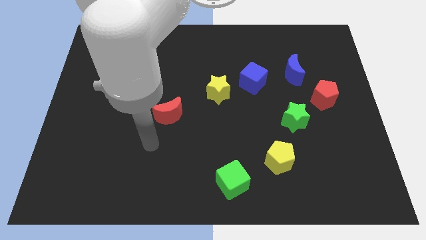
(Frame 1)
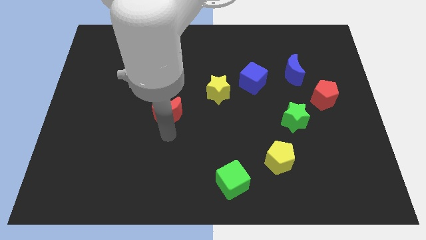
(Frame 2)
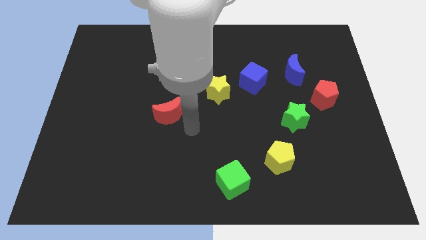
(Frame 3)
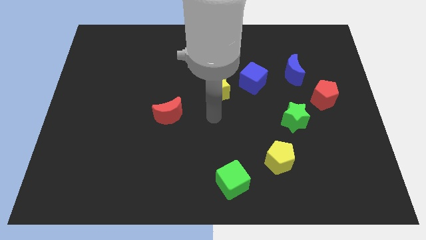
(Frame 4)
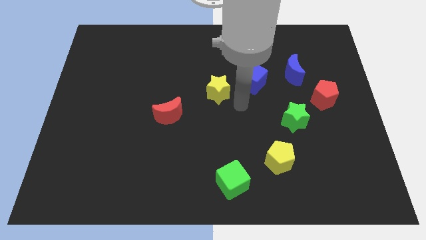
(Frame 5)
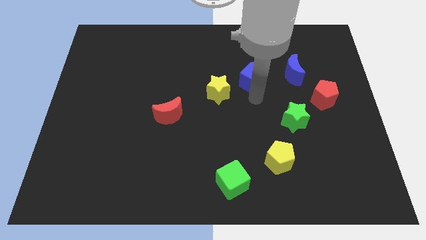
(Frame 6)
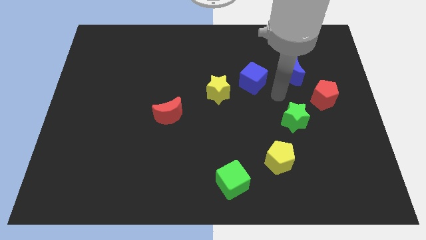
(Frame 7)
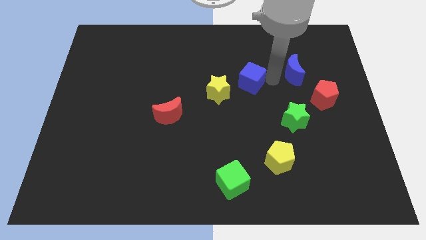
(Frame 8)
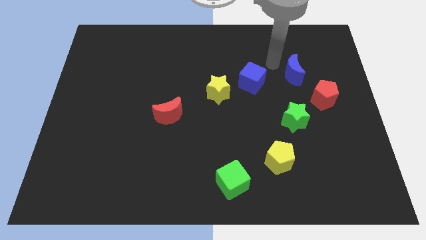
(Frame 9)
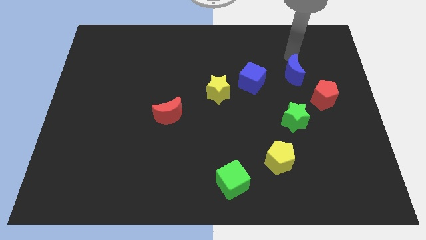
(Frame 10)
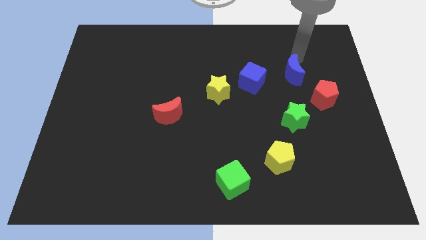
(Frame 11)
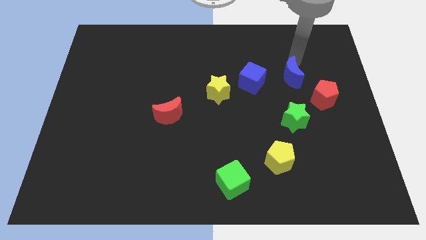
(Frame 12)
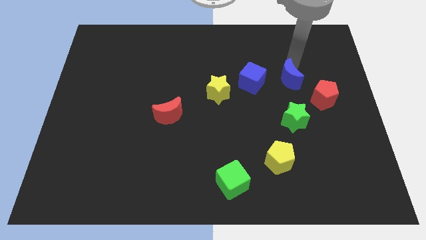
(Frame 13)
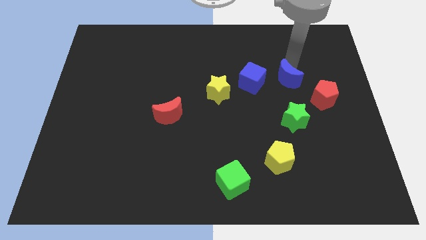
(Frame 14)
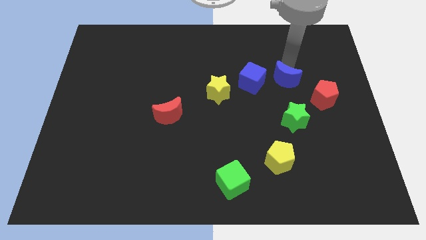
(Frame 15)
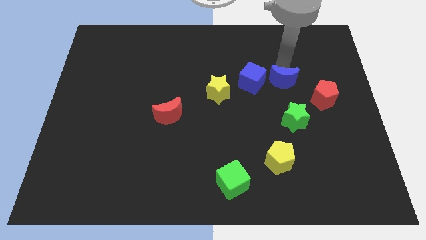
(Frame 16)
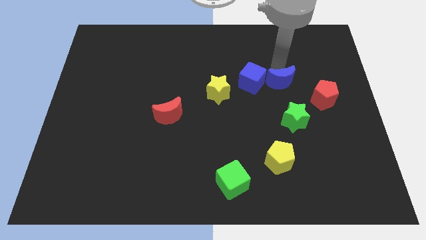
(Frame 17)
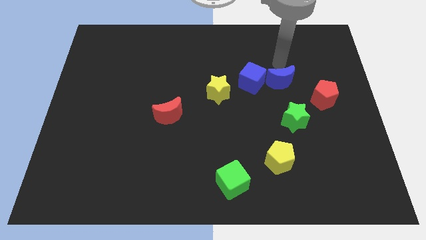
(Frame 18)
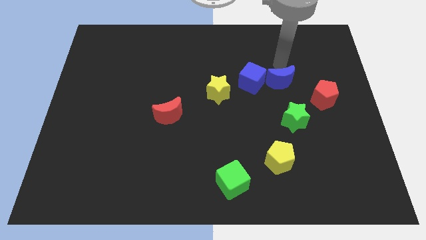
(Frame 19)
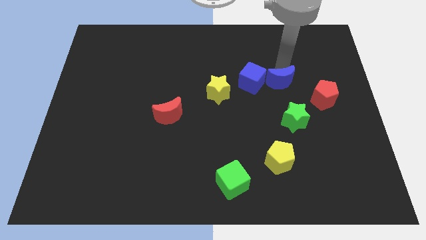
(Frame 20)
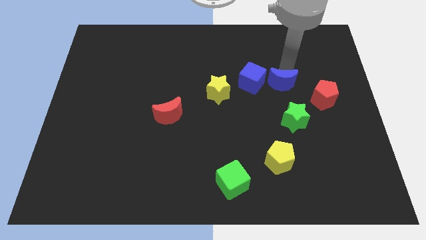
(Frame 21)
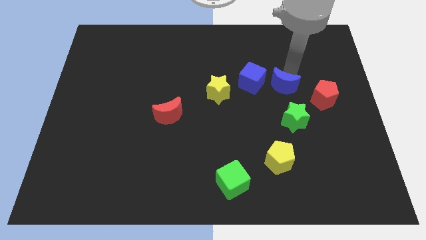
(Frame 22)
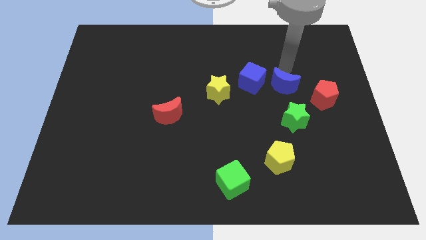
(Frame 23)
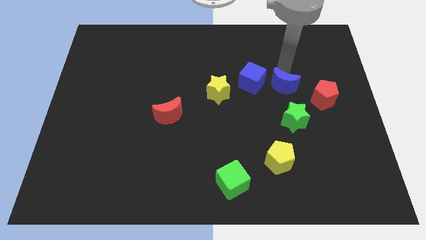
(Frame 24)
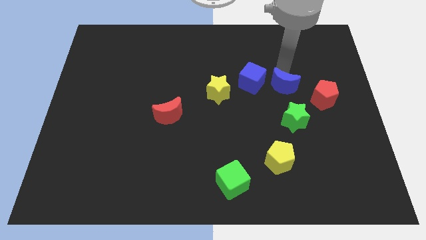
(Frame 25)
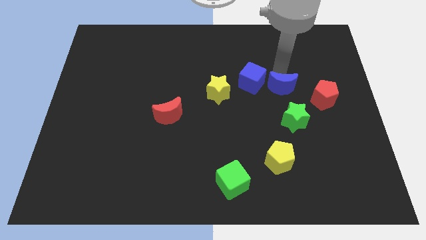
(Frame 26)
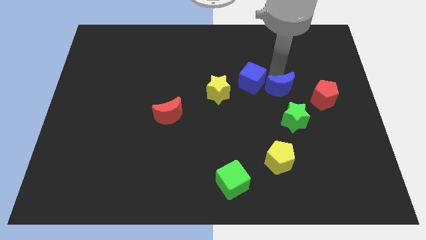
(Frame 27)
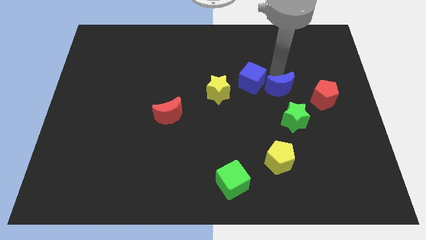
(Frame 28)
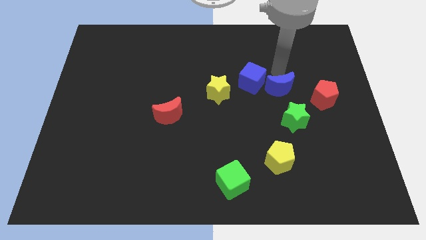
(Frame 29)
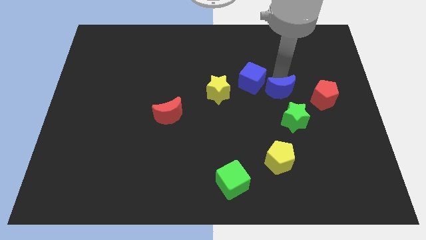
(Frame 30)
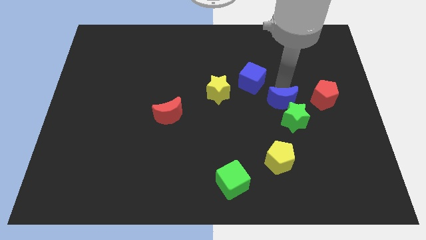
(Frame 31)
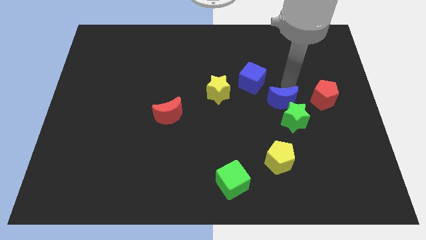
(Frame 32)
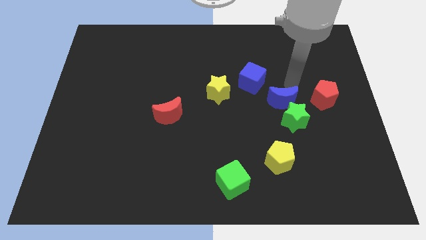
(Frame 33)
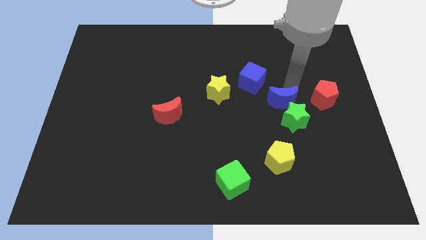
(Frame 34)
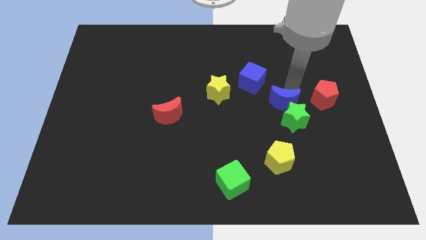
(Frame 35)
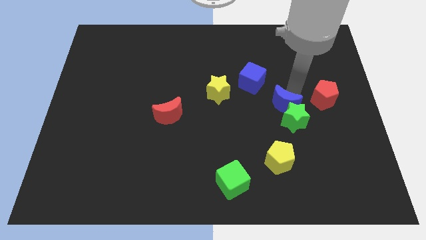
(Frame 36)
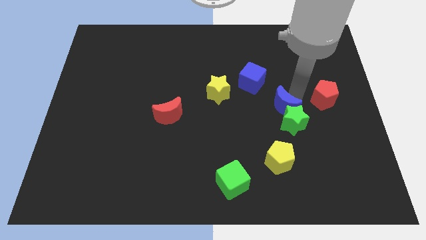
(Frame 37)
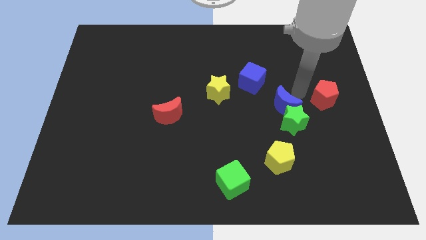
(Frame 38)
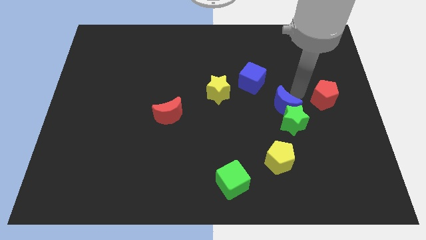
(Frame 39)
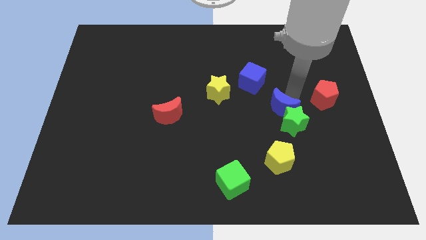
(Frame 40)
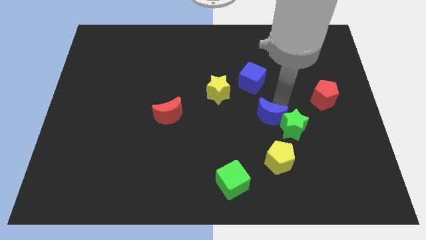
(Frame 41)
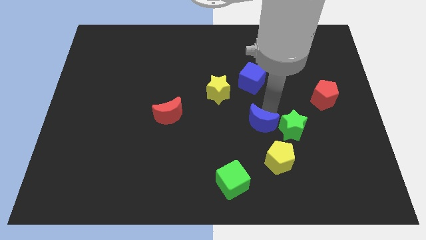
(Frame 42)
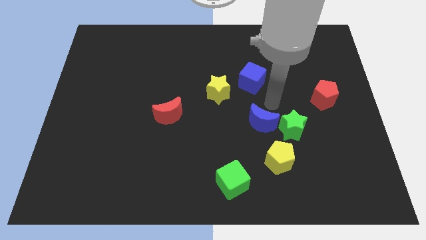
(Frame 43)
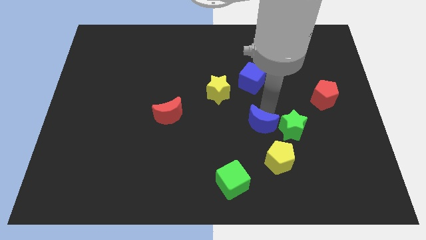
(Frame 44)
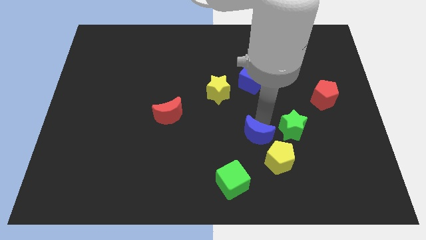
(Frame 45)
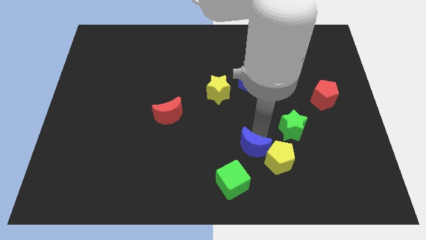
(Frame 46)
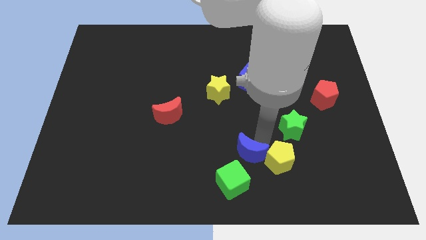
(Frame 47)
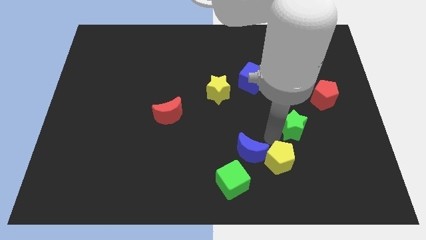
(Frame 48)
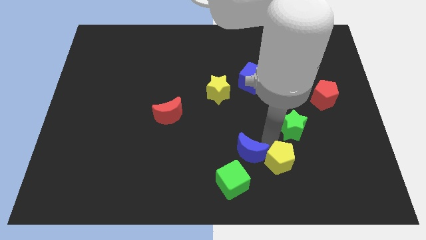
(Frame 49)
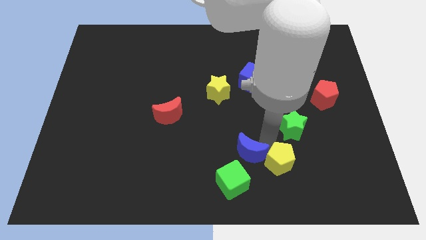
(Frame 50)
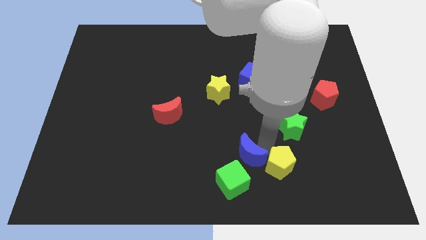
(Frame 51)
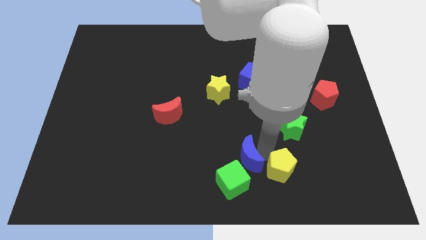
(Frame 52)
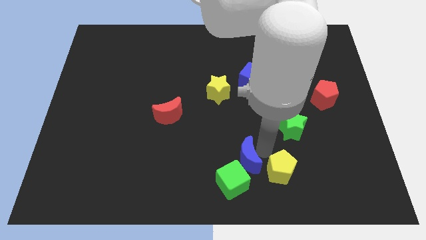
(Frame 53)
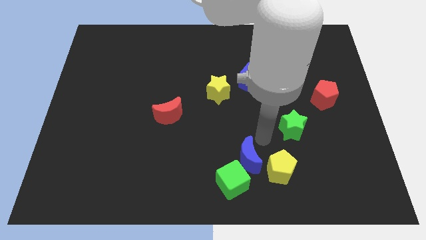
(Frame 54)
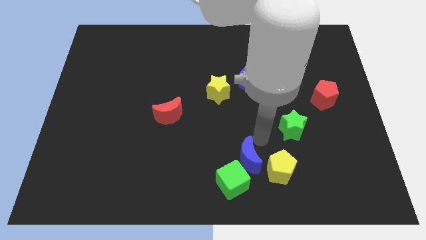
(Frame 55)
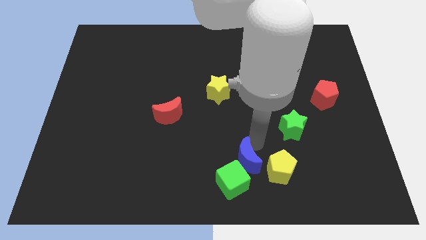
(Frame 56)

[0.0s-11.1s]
move the blue moon next to the green cube

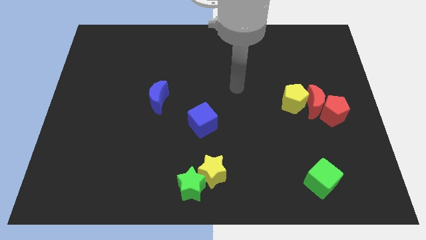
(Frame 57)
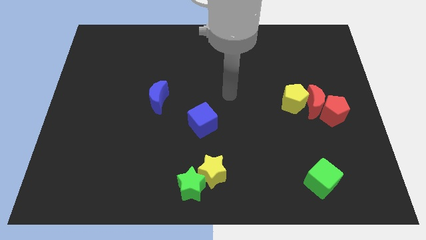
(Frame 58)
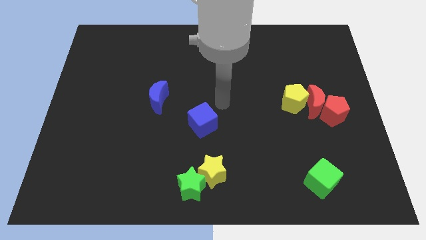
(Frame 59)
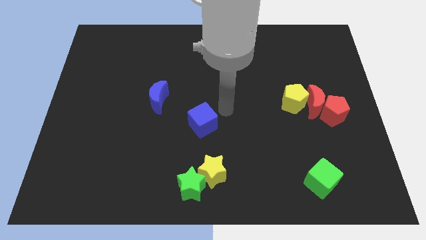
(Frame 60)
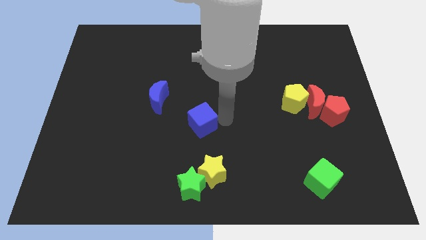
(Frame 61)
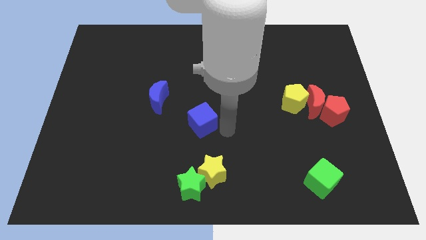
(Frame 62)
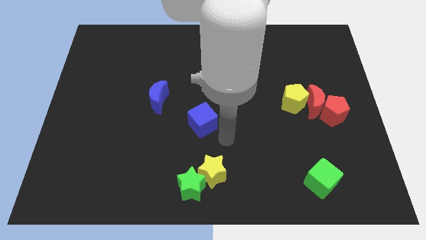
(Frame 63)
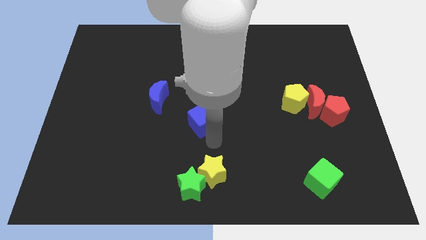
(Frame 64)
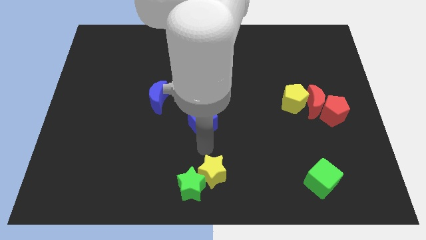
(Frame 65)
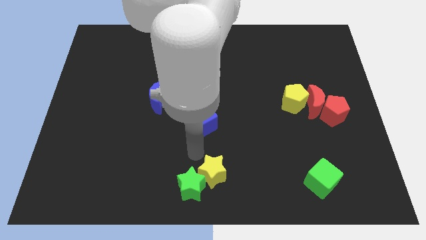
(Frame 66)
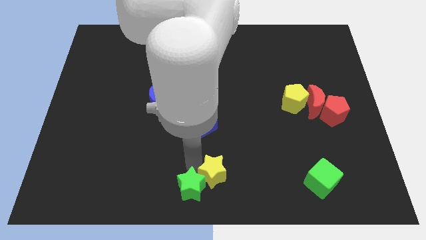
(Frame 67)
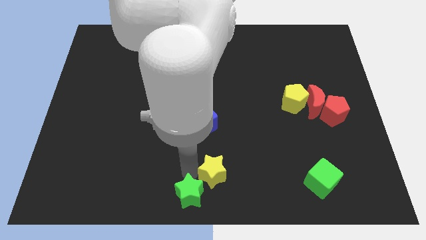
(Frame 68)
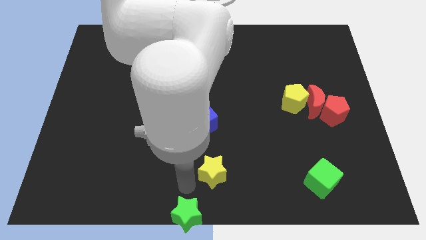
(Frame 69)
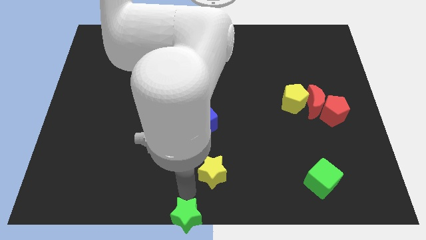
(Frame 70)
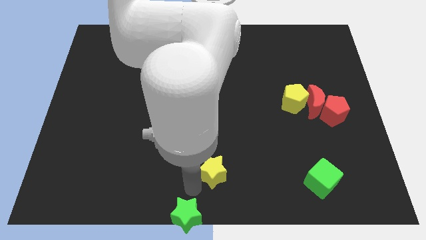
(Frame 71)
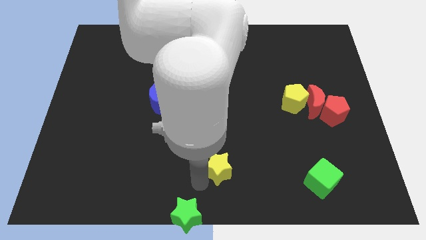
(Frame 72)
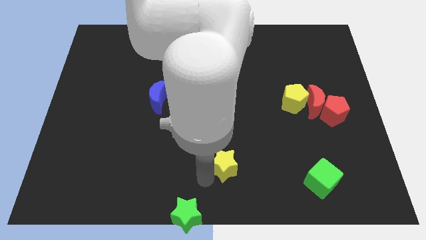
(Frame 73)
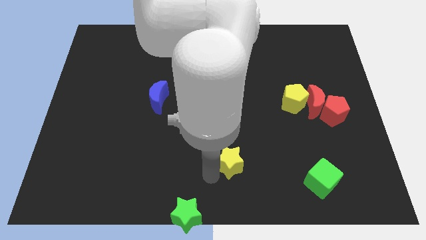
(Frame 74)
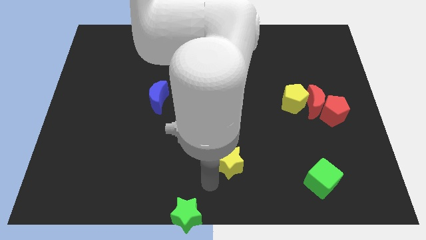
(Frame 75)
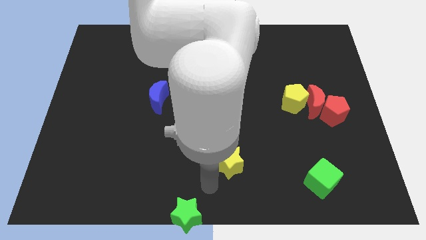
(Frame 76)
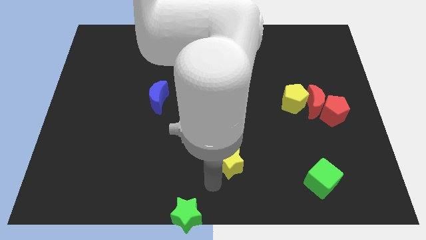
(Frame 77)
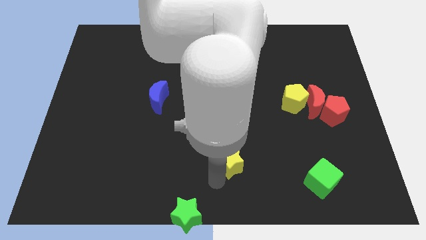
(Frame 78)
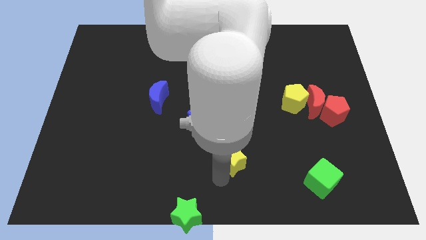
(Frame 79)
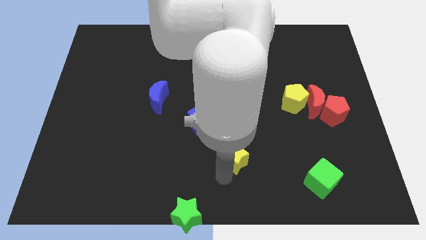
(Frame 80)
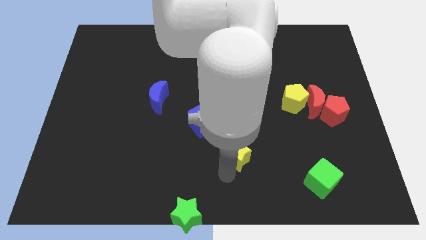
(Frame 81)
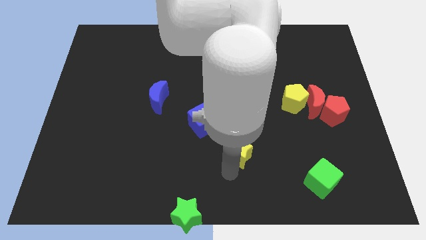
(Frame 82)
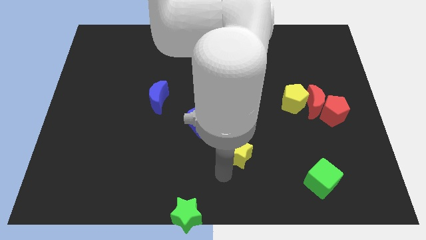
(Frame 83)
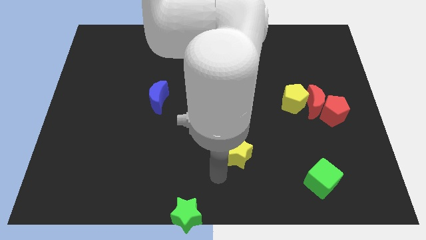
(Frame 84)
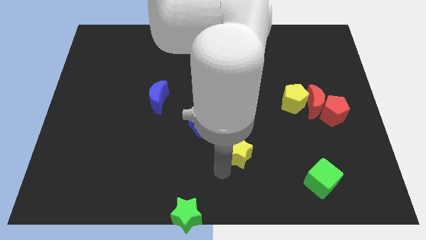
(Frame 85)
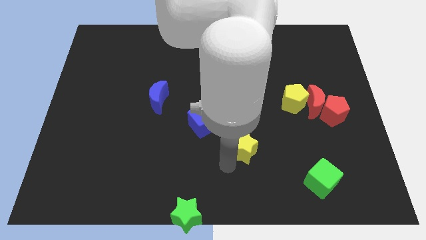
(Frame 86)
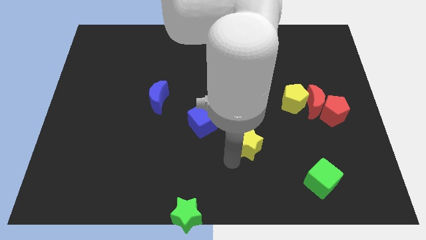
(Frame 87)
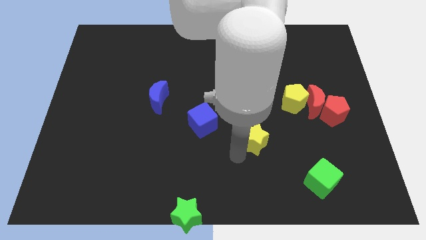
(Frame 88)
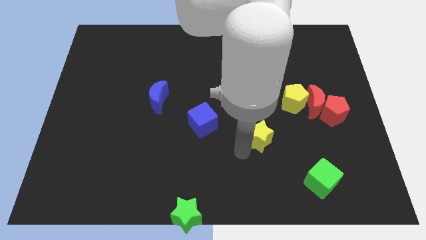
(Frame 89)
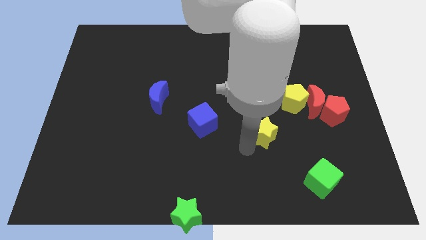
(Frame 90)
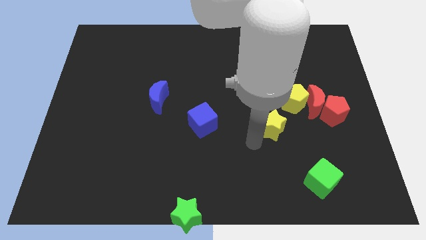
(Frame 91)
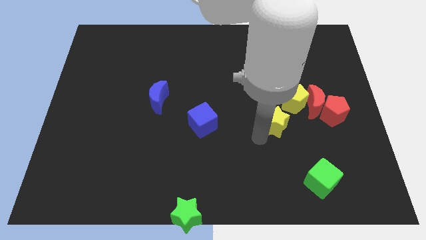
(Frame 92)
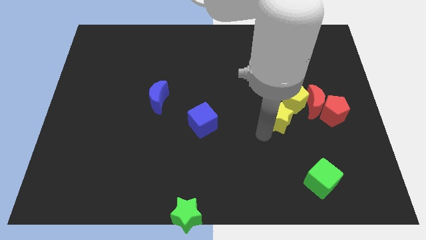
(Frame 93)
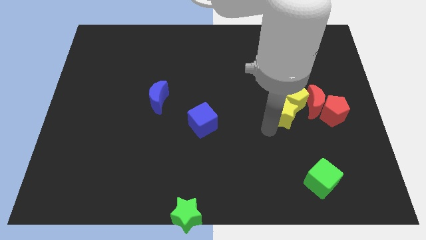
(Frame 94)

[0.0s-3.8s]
move the yellow star next to the yellow pentagon
